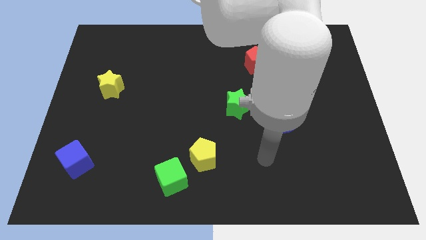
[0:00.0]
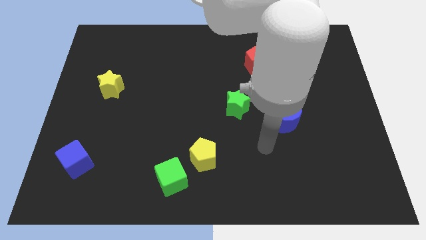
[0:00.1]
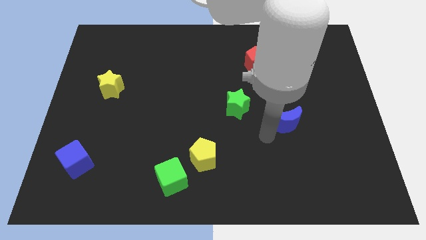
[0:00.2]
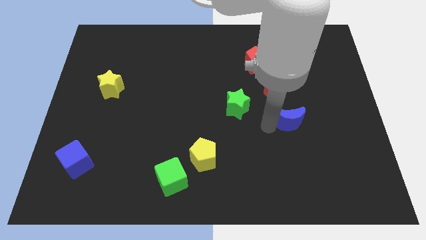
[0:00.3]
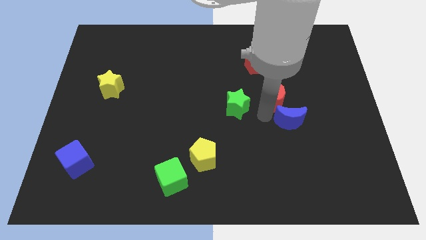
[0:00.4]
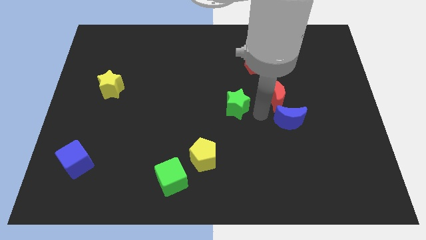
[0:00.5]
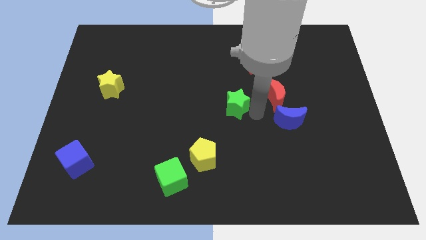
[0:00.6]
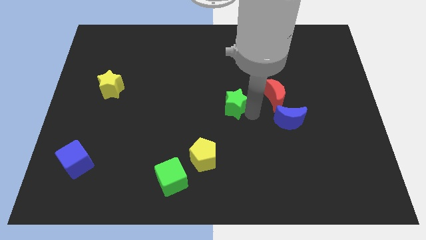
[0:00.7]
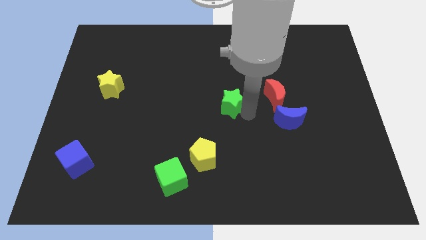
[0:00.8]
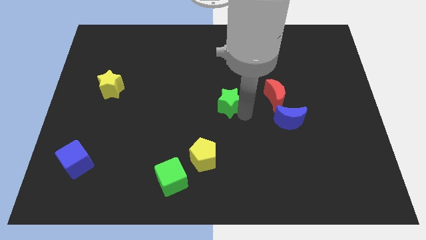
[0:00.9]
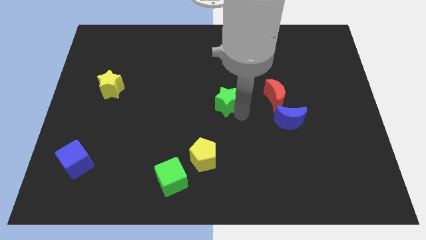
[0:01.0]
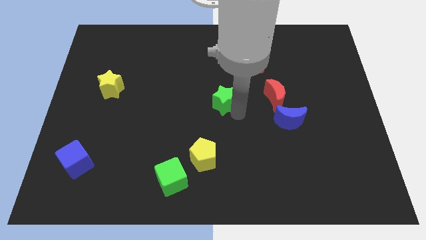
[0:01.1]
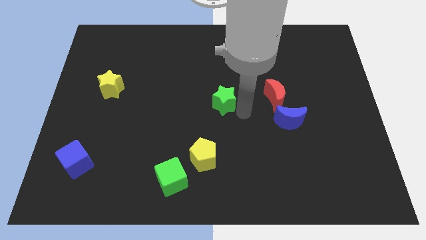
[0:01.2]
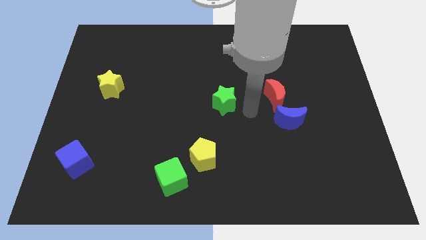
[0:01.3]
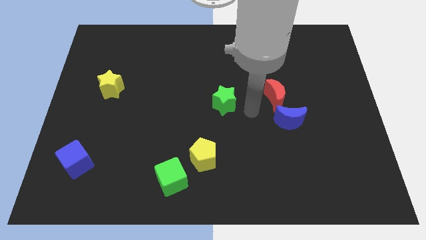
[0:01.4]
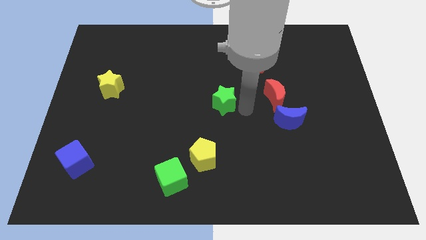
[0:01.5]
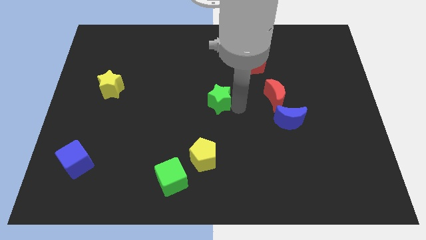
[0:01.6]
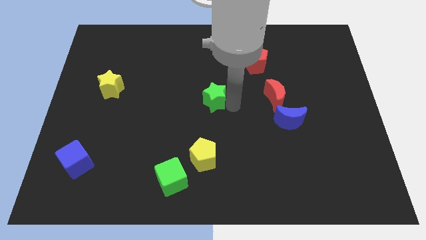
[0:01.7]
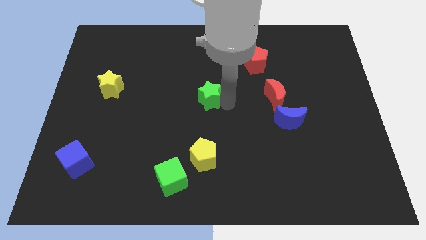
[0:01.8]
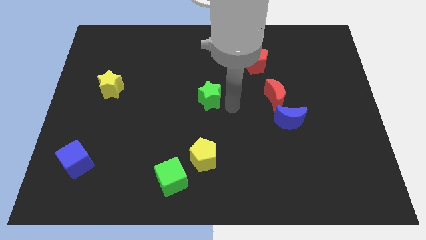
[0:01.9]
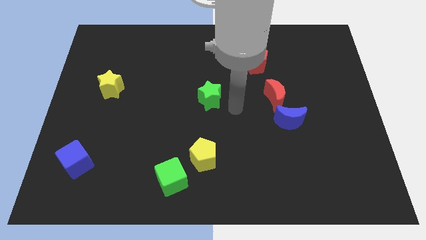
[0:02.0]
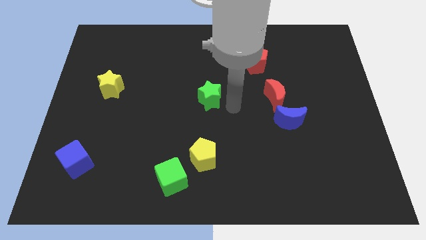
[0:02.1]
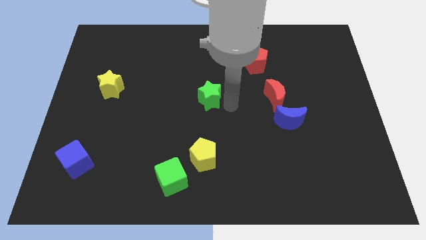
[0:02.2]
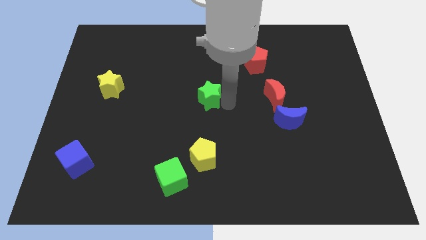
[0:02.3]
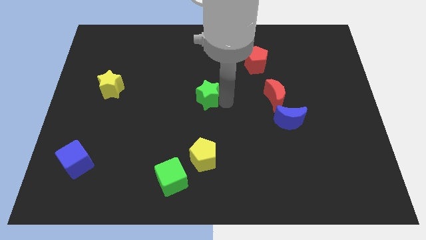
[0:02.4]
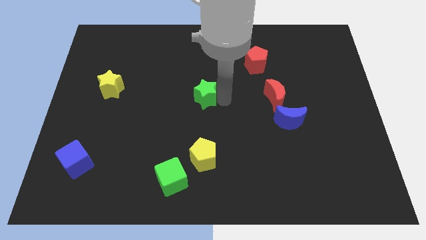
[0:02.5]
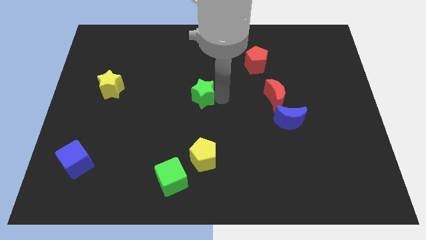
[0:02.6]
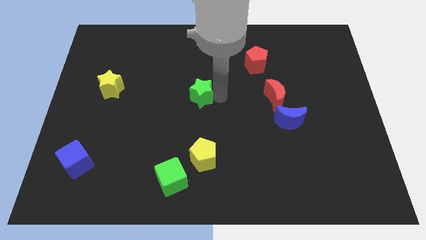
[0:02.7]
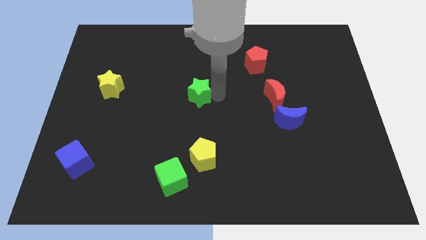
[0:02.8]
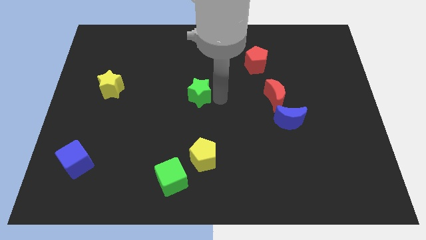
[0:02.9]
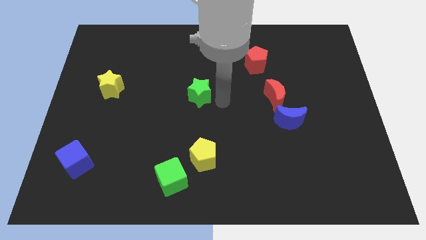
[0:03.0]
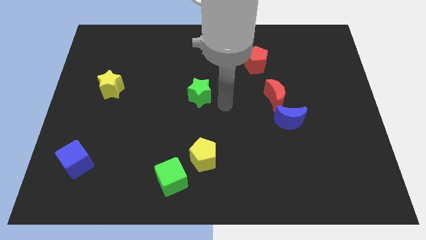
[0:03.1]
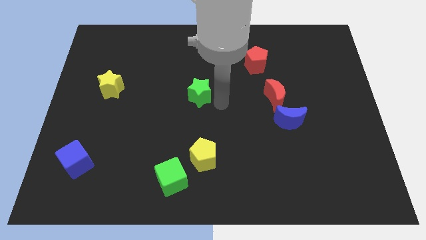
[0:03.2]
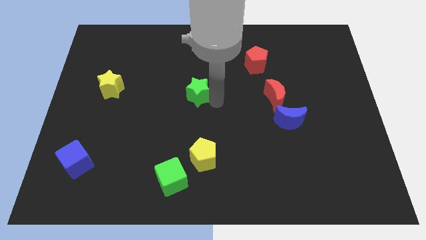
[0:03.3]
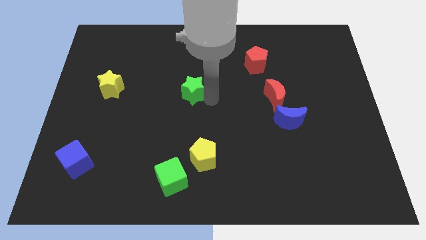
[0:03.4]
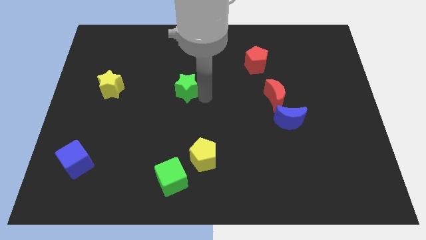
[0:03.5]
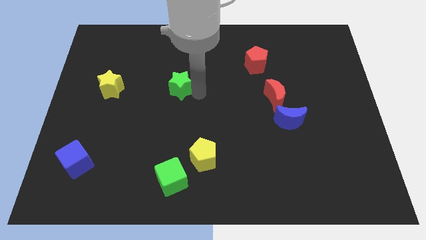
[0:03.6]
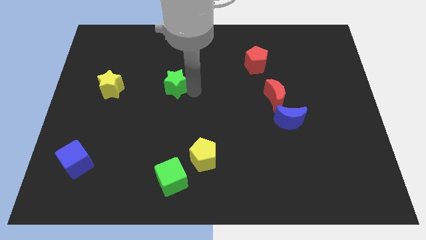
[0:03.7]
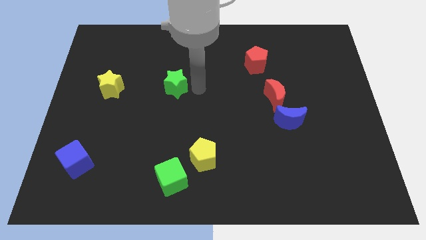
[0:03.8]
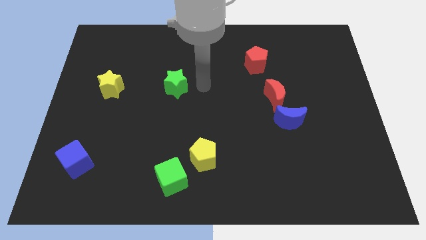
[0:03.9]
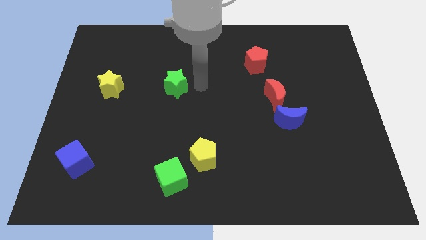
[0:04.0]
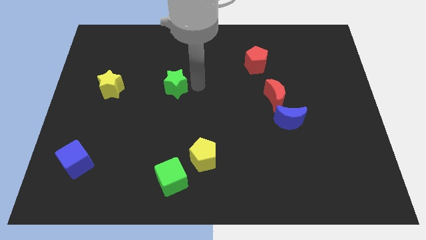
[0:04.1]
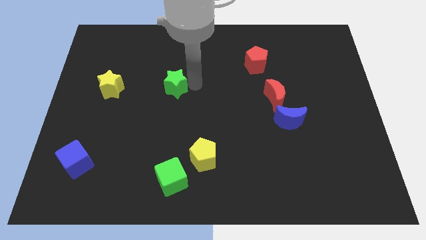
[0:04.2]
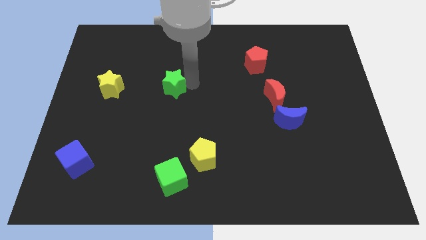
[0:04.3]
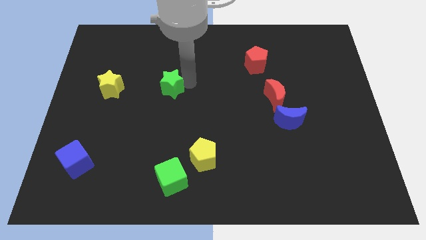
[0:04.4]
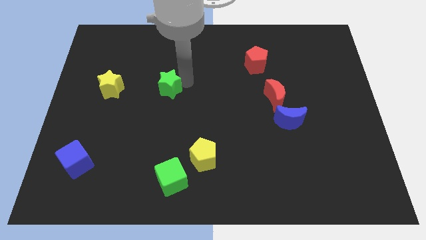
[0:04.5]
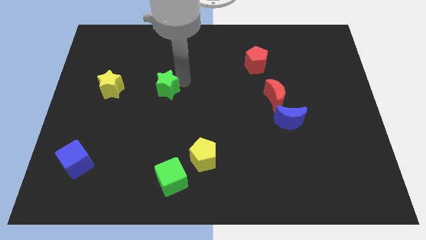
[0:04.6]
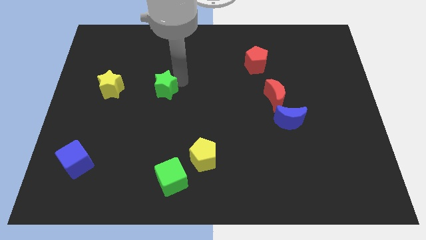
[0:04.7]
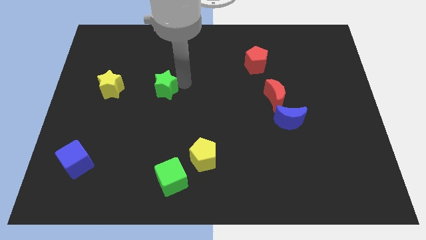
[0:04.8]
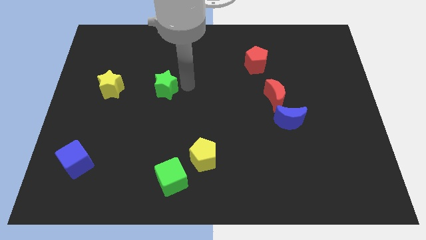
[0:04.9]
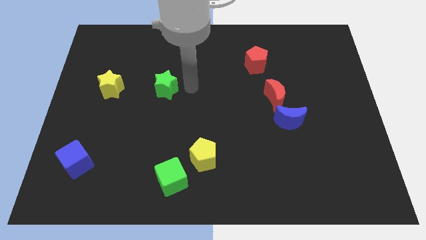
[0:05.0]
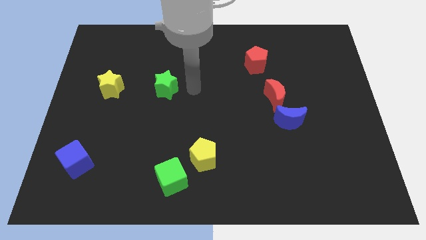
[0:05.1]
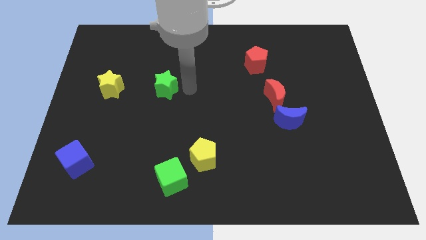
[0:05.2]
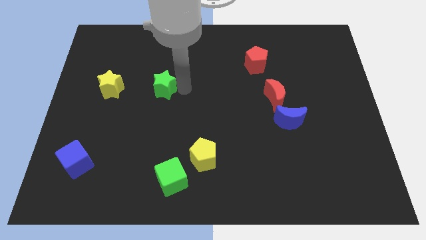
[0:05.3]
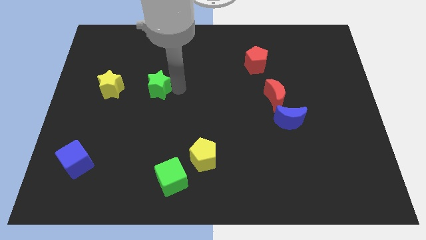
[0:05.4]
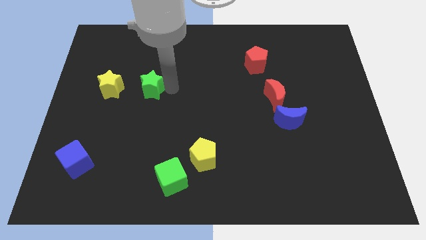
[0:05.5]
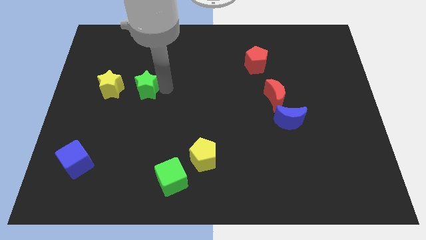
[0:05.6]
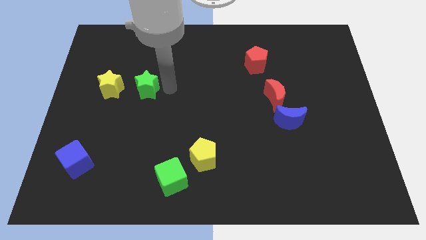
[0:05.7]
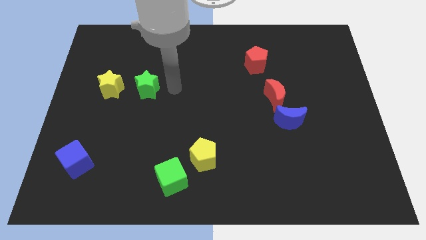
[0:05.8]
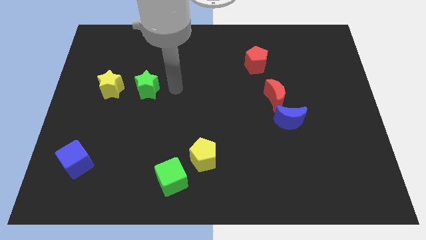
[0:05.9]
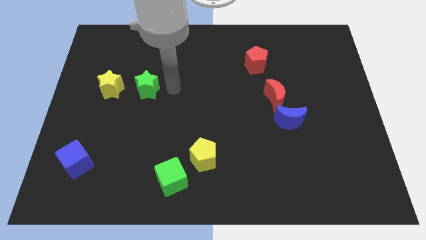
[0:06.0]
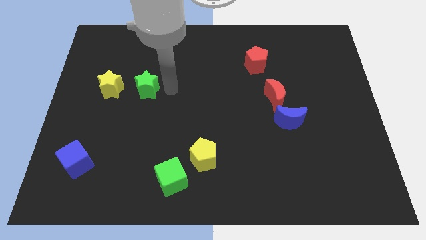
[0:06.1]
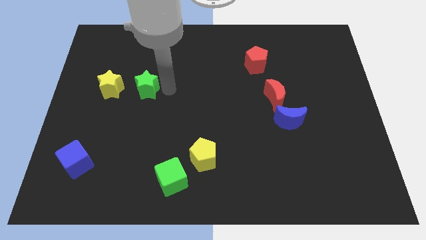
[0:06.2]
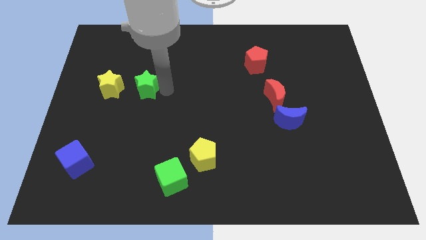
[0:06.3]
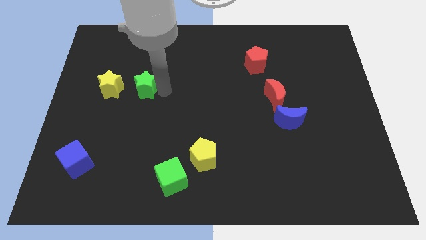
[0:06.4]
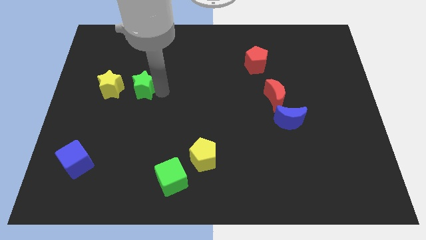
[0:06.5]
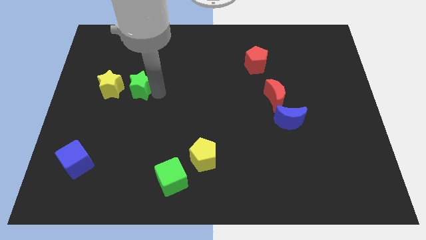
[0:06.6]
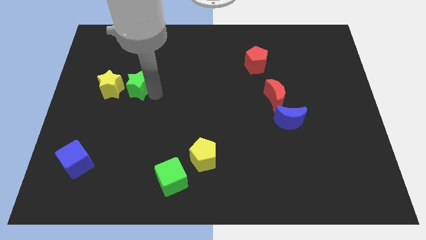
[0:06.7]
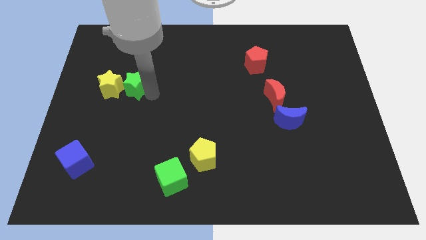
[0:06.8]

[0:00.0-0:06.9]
move the green star close to the yellow star
